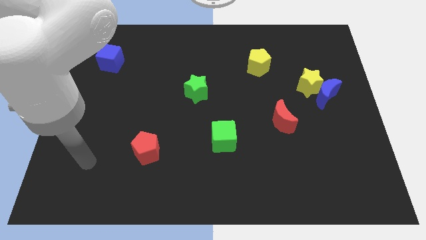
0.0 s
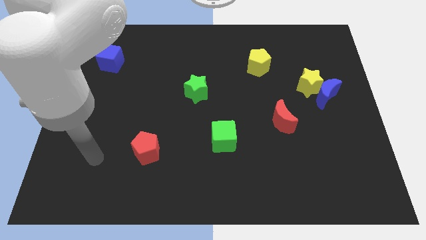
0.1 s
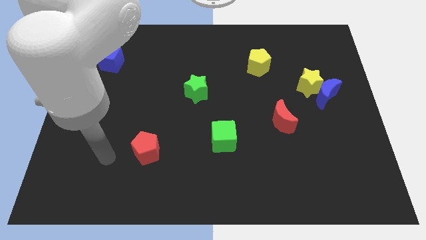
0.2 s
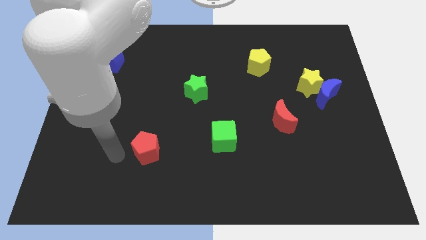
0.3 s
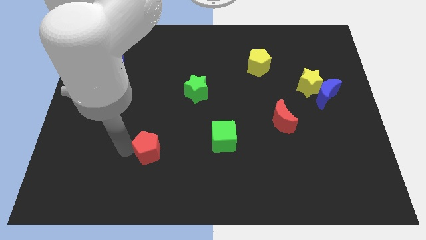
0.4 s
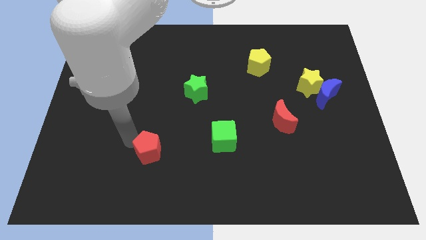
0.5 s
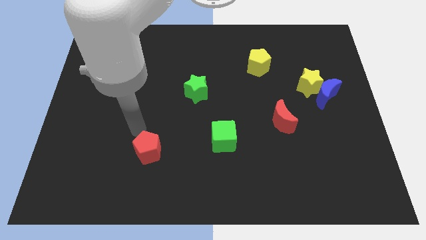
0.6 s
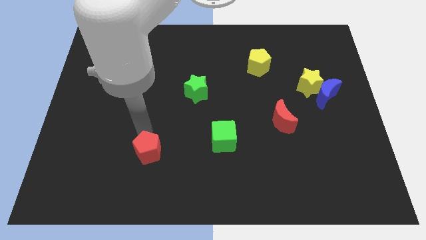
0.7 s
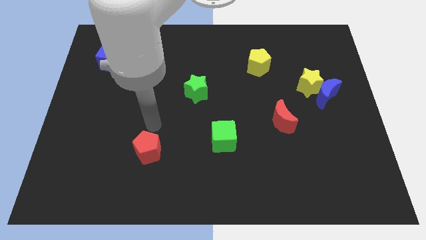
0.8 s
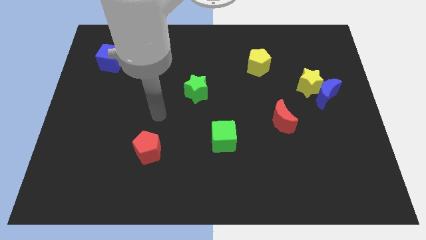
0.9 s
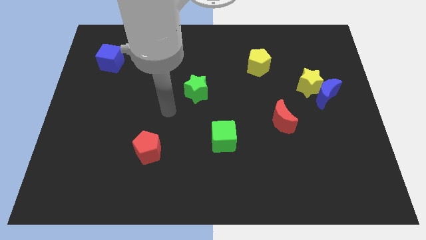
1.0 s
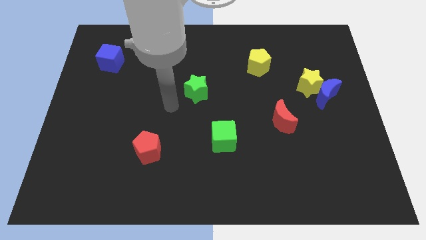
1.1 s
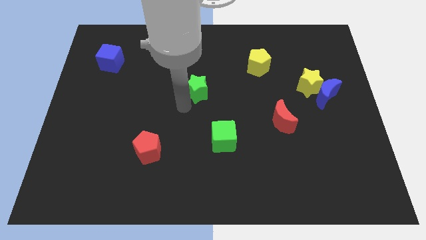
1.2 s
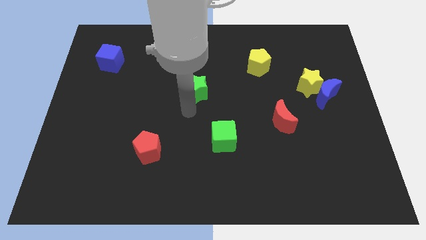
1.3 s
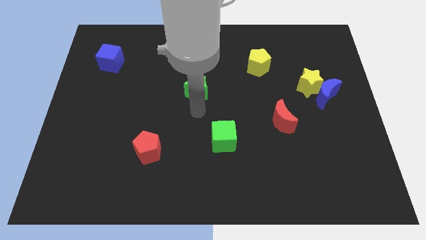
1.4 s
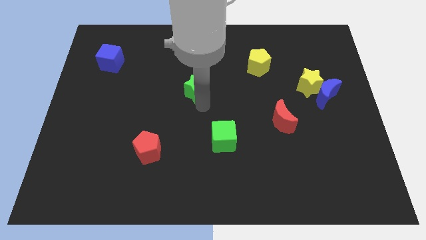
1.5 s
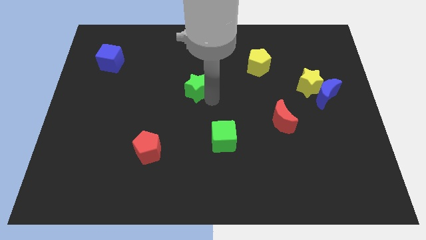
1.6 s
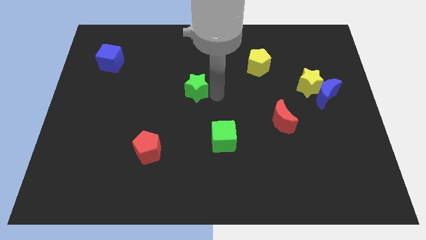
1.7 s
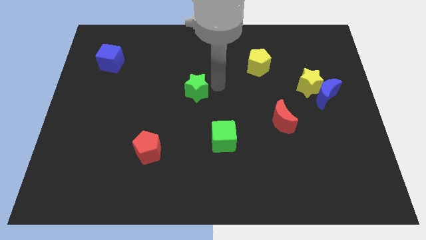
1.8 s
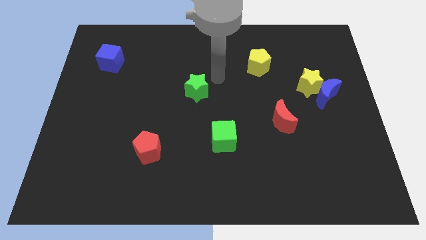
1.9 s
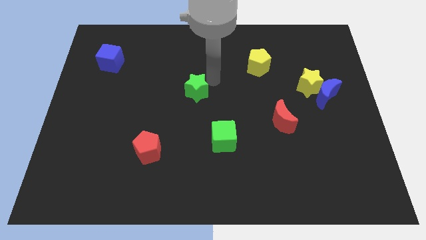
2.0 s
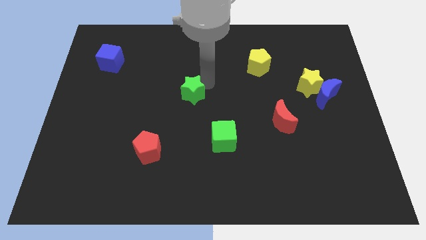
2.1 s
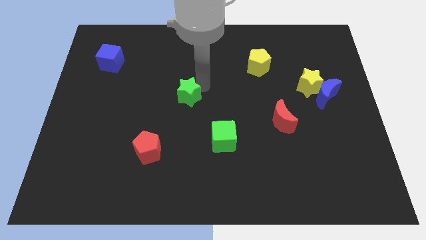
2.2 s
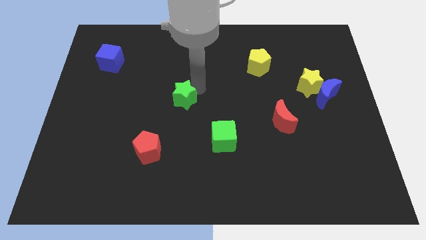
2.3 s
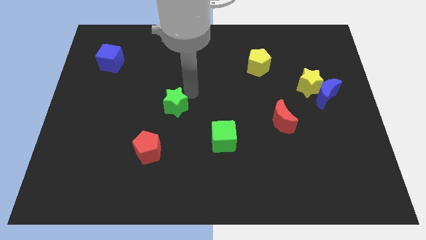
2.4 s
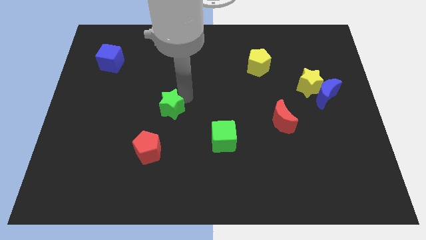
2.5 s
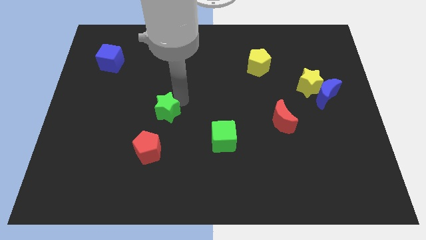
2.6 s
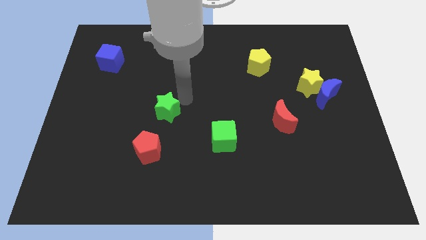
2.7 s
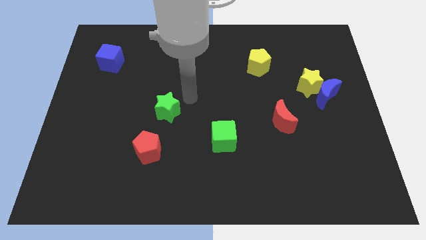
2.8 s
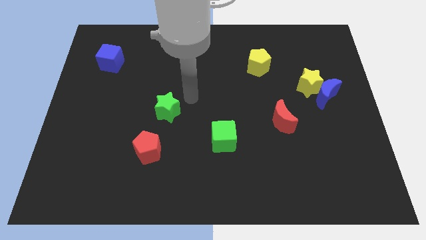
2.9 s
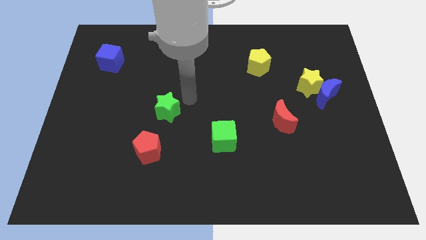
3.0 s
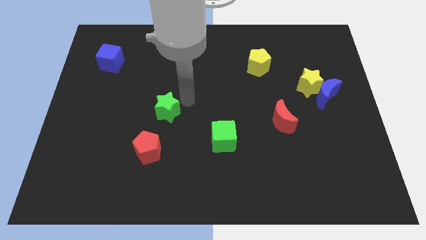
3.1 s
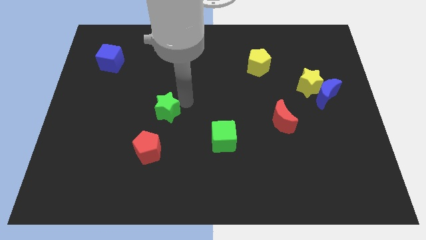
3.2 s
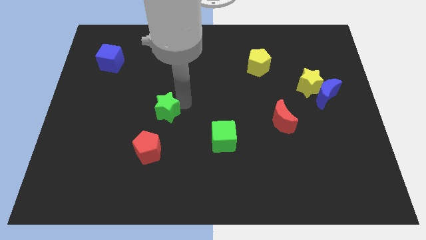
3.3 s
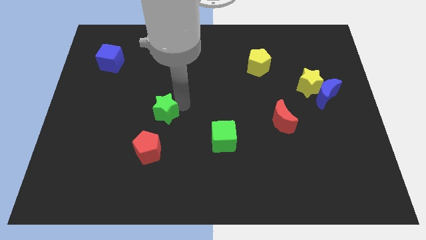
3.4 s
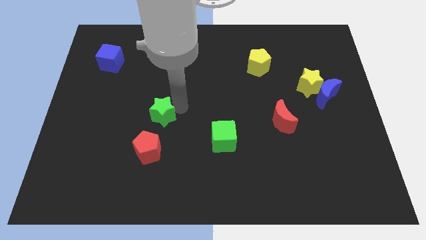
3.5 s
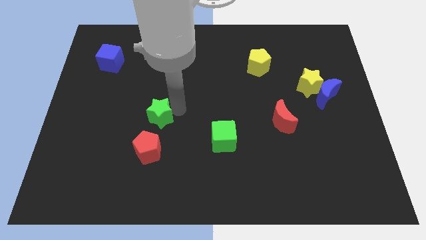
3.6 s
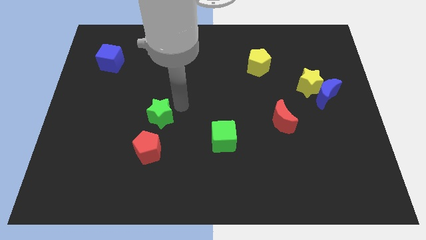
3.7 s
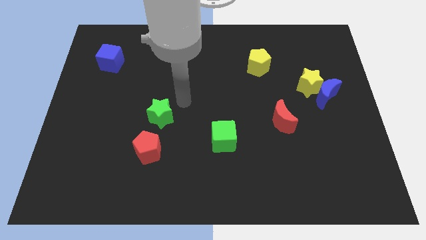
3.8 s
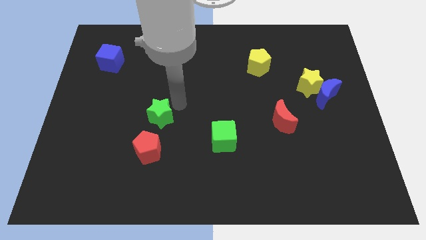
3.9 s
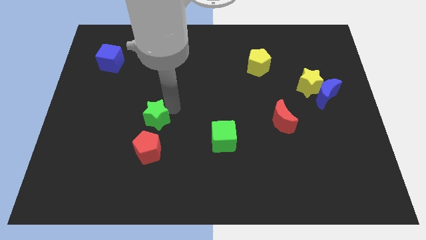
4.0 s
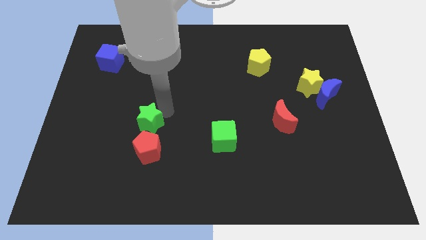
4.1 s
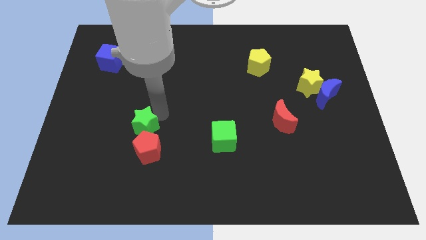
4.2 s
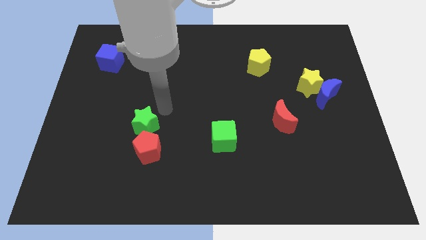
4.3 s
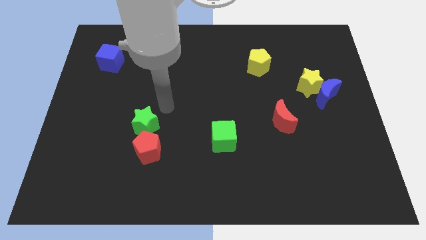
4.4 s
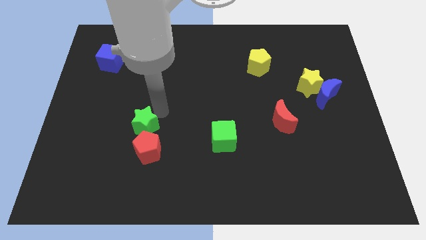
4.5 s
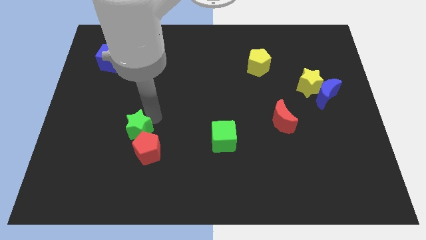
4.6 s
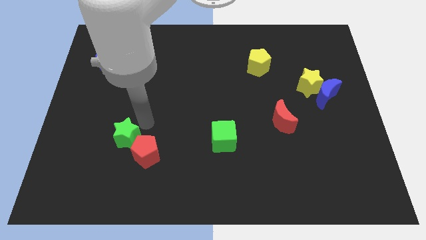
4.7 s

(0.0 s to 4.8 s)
push the green star downwards and to the left

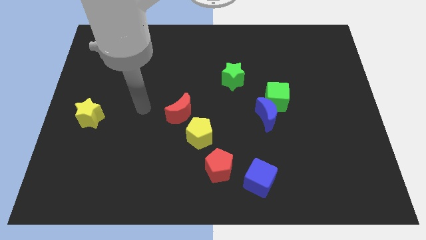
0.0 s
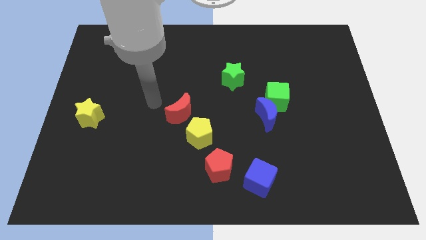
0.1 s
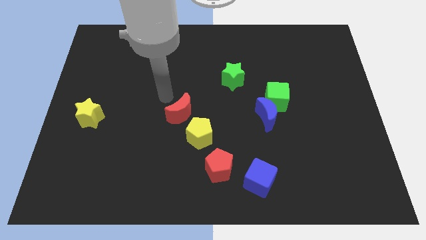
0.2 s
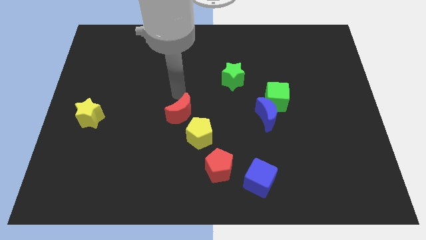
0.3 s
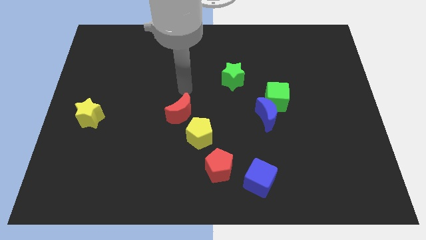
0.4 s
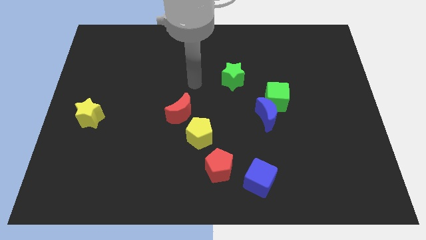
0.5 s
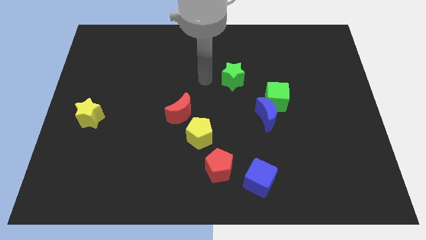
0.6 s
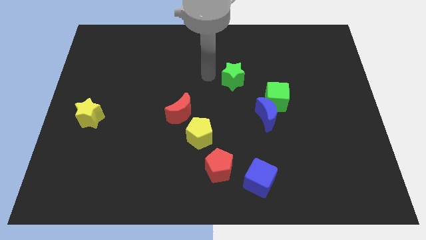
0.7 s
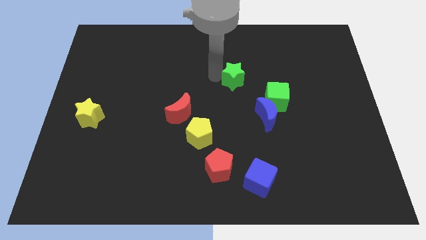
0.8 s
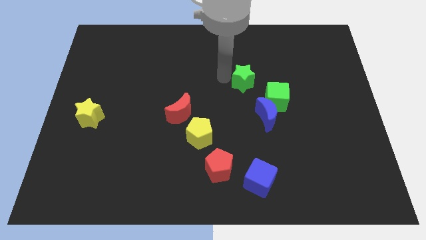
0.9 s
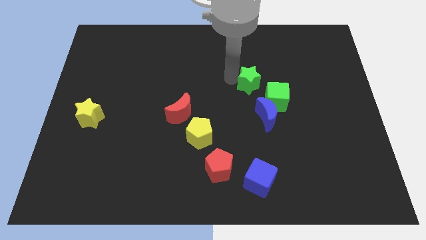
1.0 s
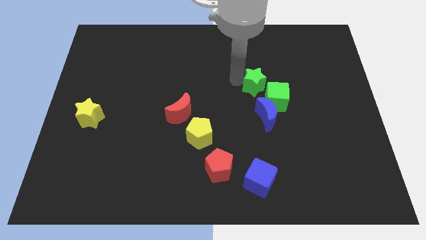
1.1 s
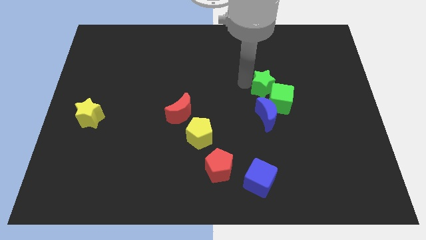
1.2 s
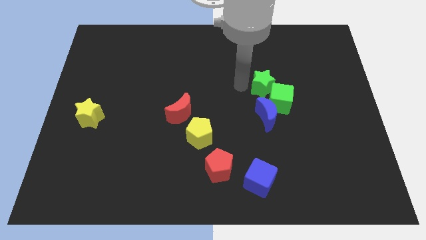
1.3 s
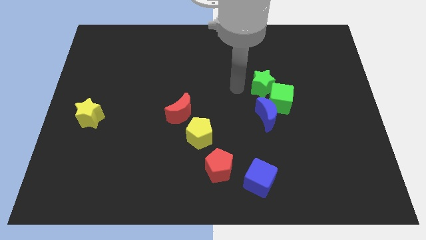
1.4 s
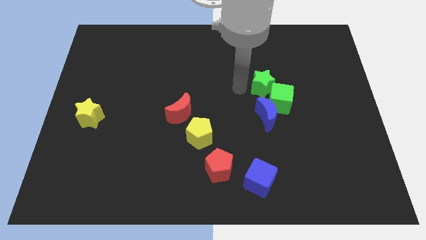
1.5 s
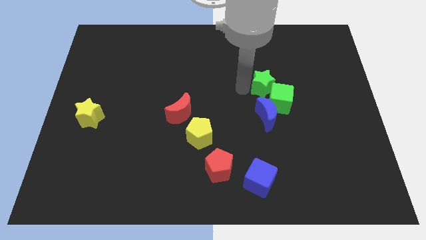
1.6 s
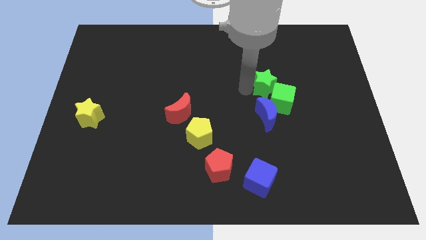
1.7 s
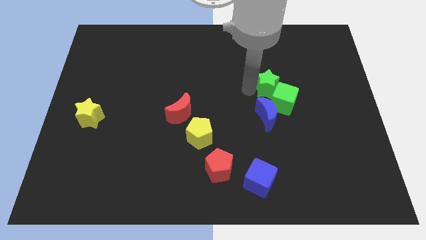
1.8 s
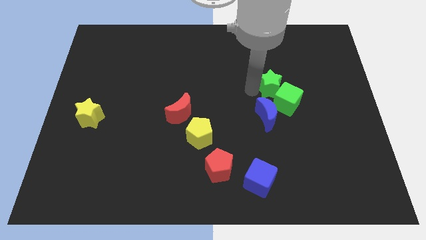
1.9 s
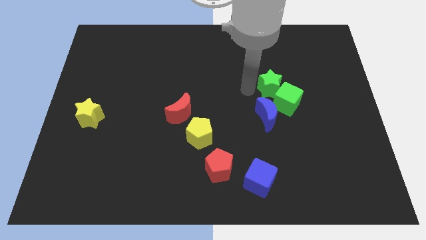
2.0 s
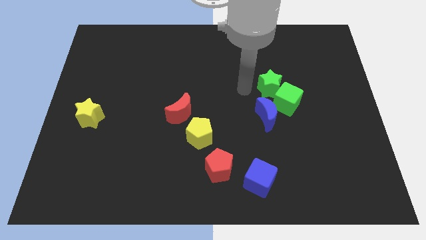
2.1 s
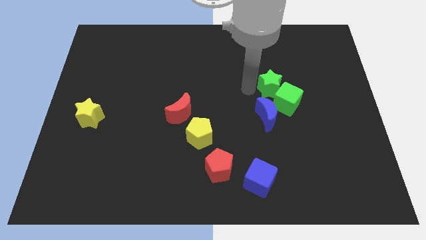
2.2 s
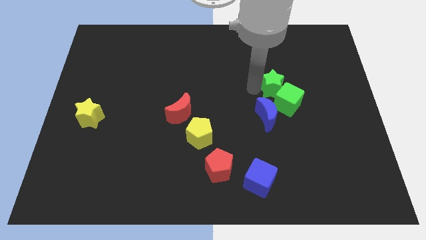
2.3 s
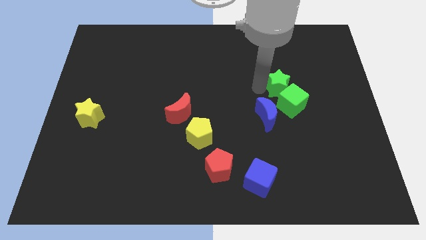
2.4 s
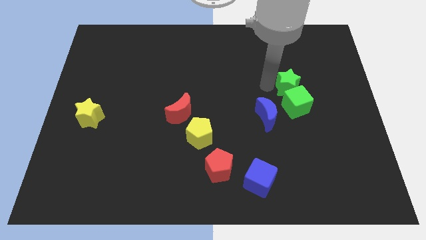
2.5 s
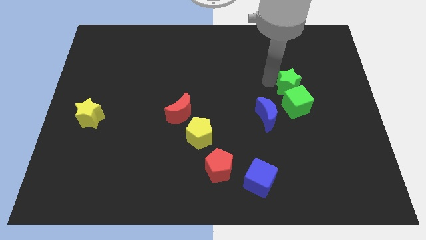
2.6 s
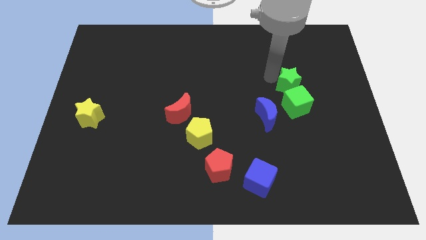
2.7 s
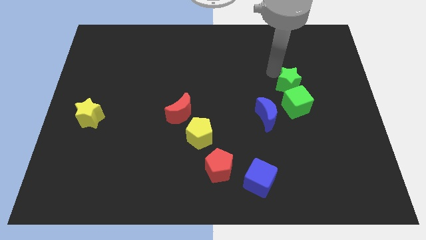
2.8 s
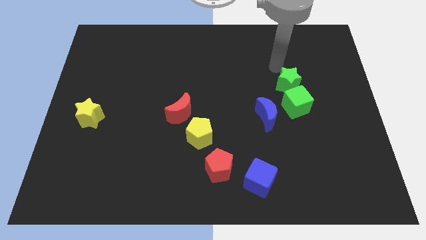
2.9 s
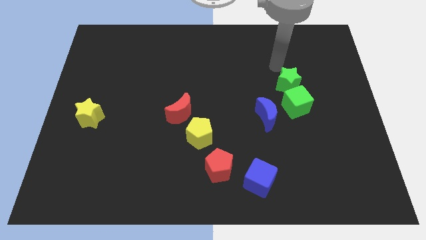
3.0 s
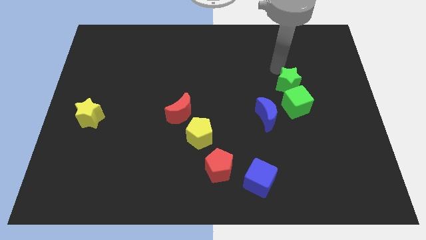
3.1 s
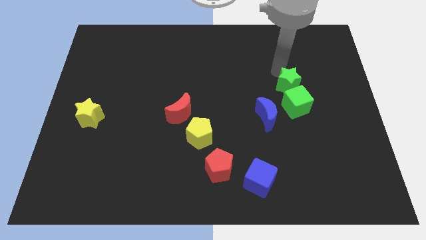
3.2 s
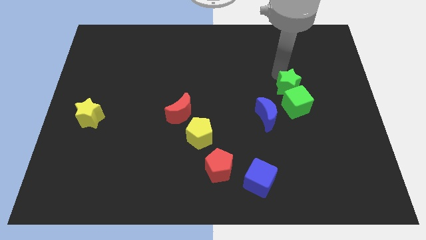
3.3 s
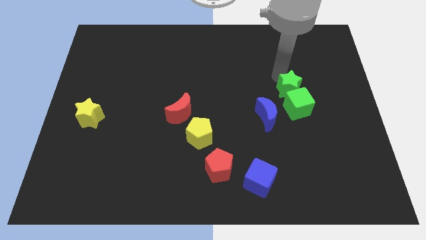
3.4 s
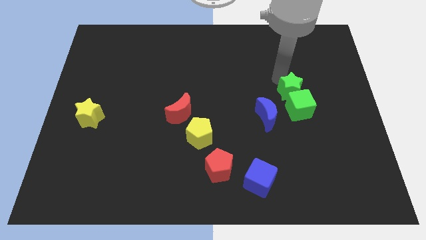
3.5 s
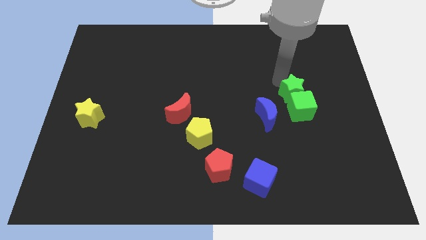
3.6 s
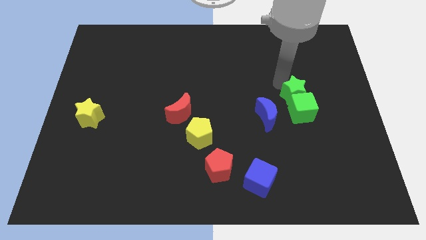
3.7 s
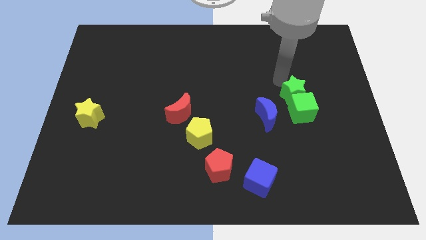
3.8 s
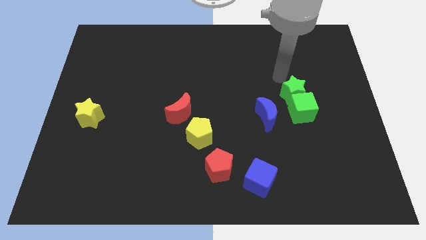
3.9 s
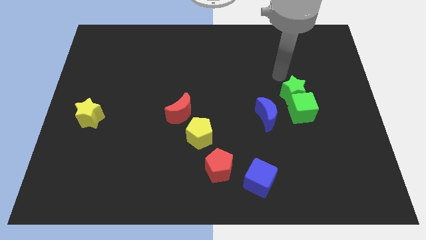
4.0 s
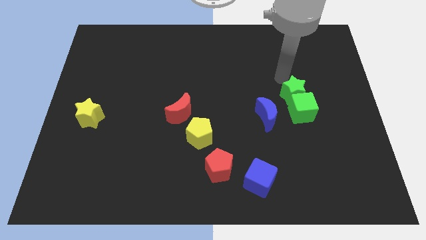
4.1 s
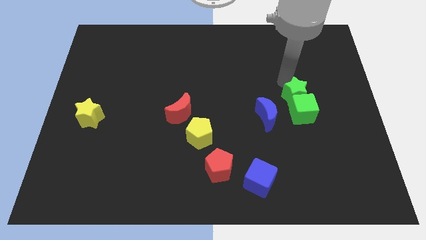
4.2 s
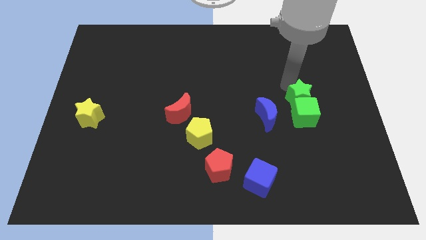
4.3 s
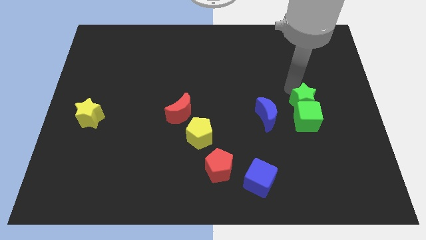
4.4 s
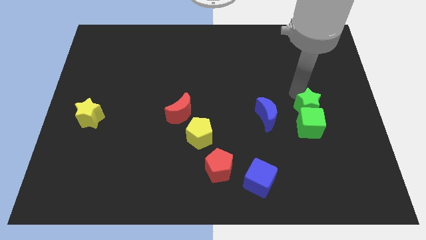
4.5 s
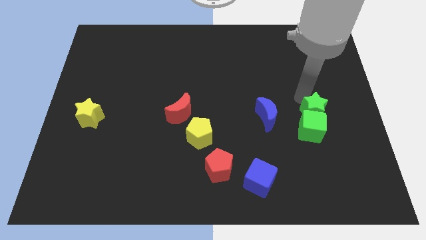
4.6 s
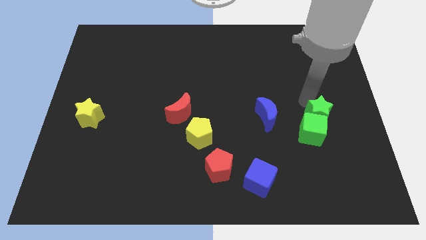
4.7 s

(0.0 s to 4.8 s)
move the green star down and then to the right
